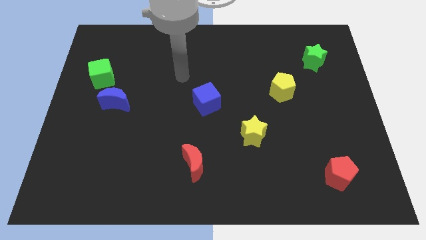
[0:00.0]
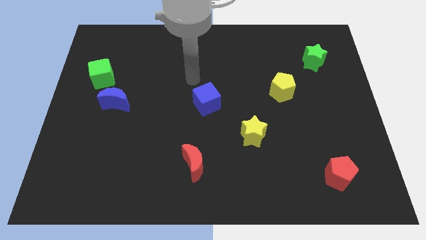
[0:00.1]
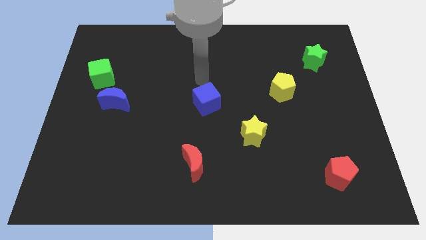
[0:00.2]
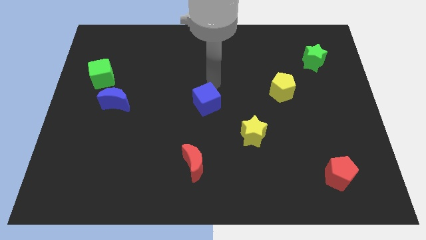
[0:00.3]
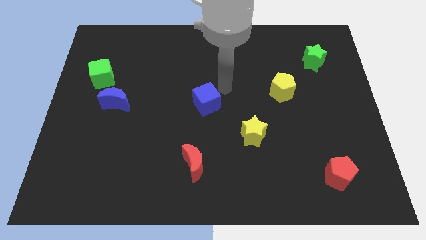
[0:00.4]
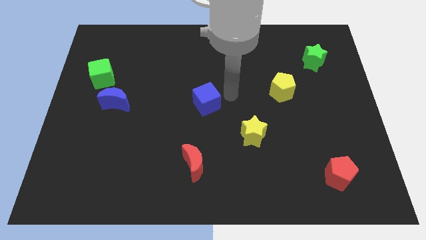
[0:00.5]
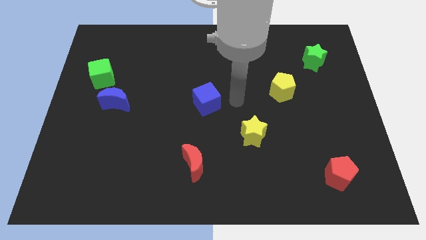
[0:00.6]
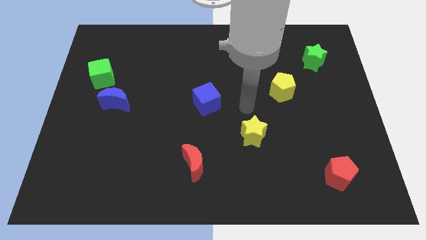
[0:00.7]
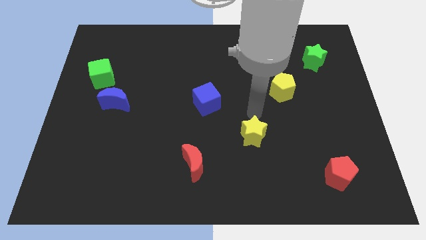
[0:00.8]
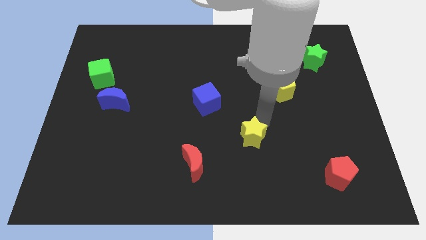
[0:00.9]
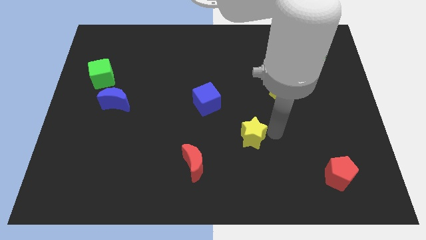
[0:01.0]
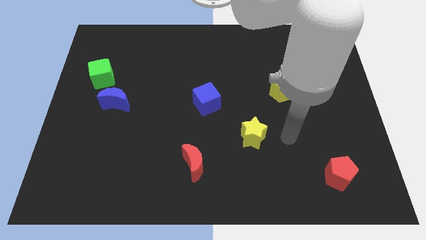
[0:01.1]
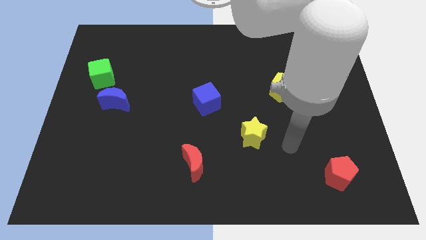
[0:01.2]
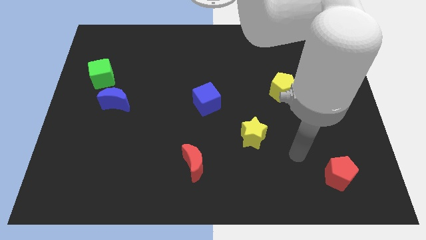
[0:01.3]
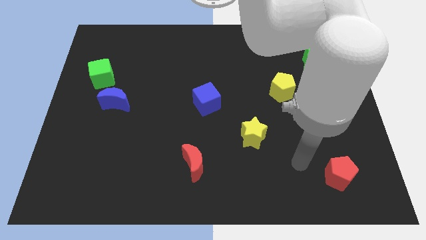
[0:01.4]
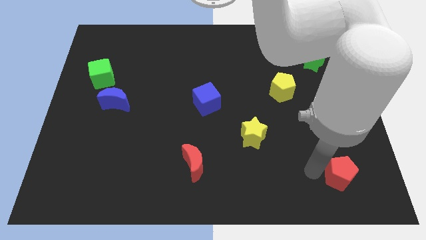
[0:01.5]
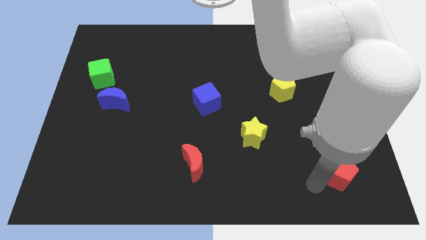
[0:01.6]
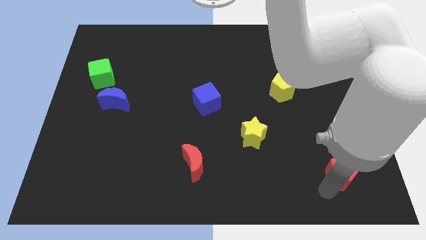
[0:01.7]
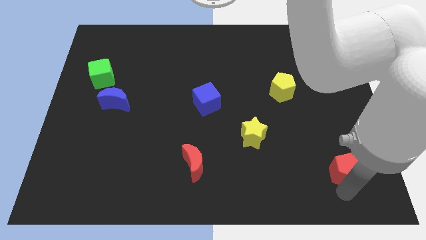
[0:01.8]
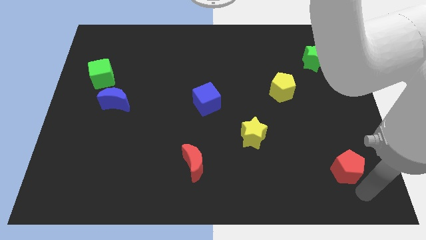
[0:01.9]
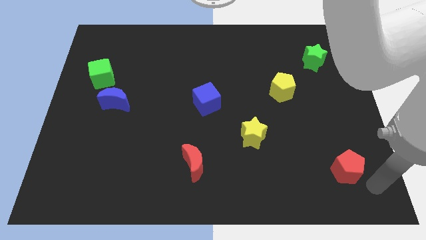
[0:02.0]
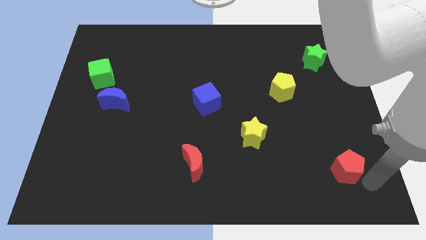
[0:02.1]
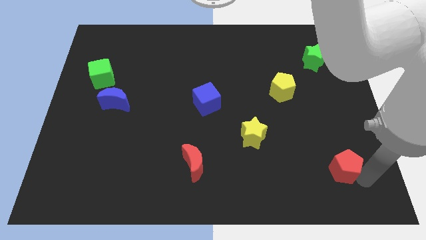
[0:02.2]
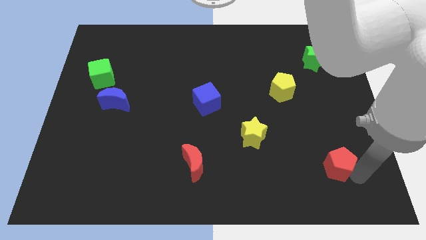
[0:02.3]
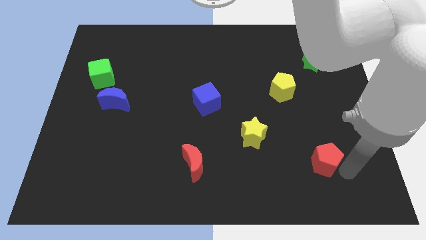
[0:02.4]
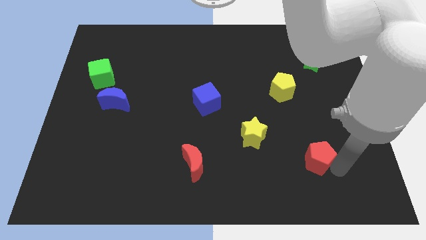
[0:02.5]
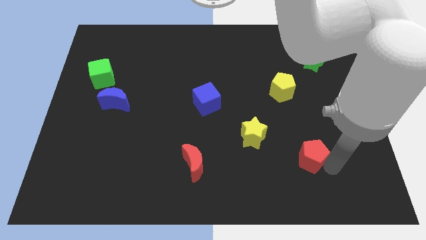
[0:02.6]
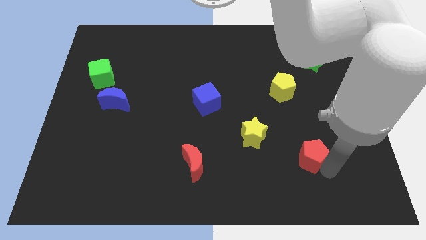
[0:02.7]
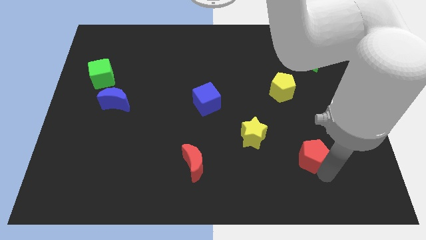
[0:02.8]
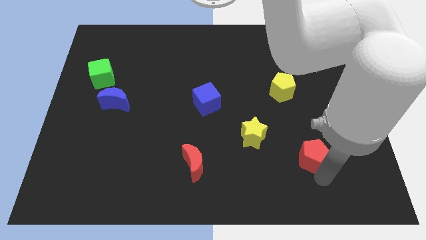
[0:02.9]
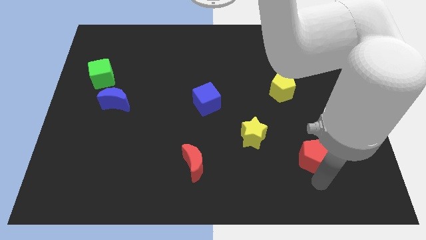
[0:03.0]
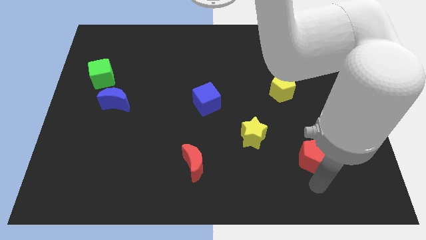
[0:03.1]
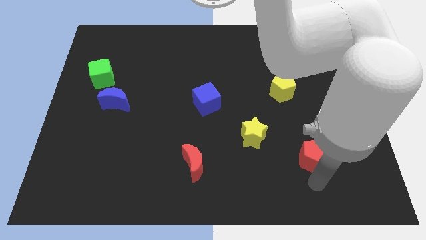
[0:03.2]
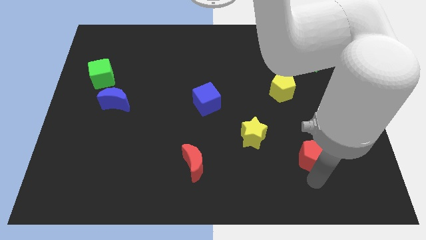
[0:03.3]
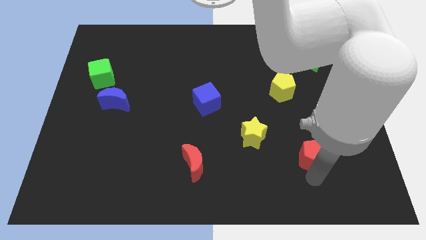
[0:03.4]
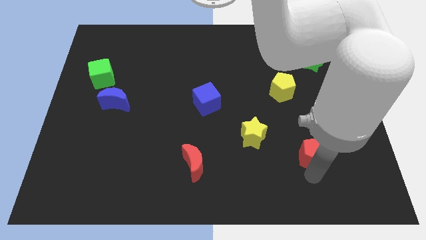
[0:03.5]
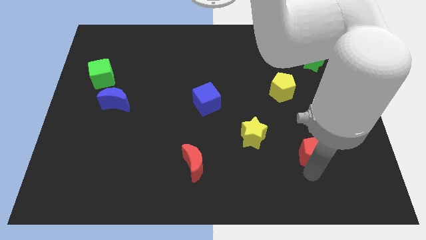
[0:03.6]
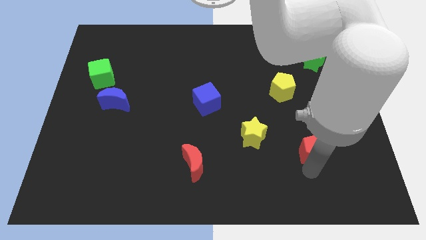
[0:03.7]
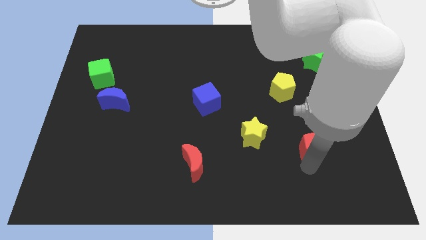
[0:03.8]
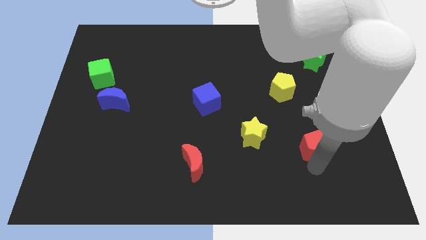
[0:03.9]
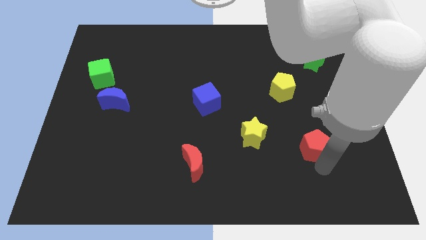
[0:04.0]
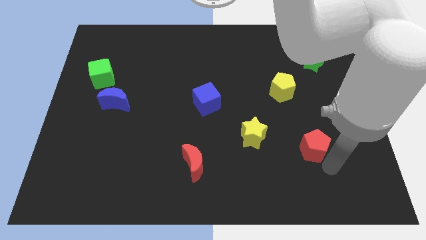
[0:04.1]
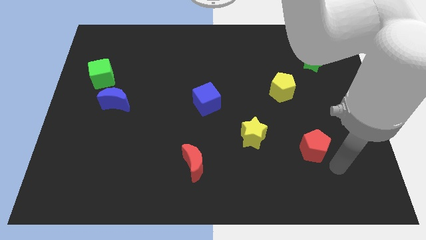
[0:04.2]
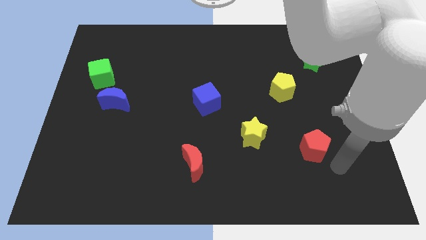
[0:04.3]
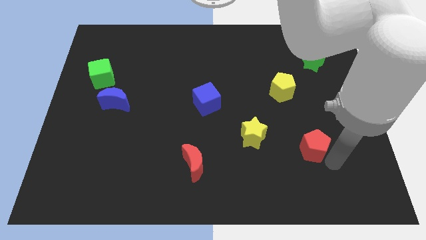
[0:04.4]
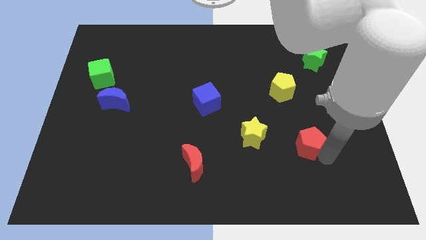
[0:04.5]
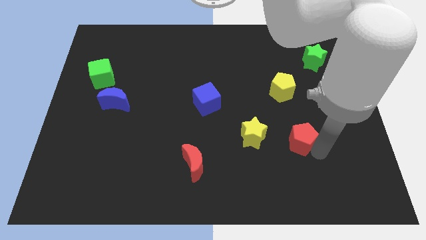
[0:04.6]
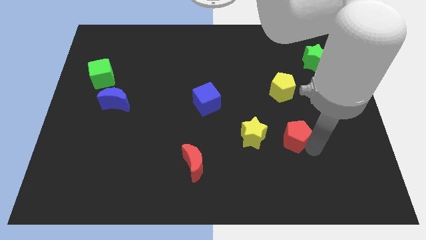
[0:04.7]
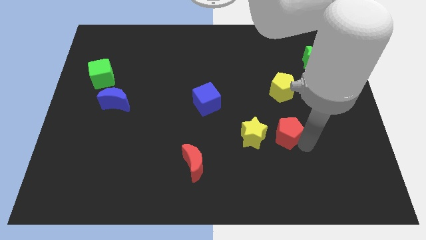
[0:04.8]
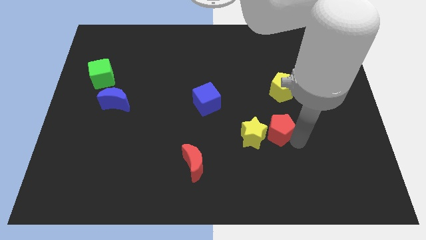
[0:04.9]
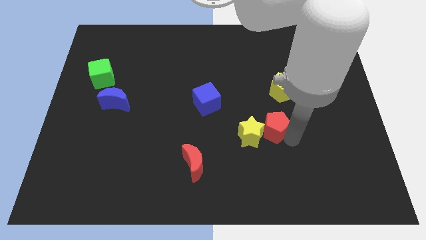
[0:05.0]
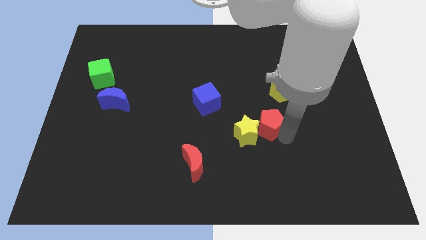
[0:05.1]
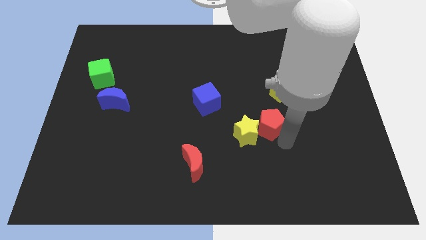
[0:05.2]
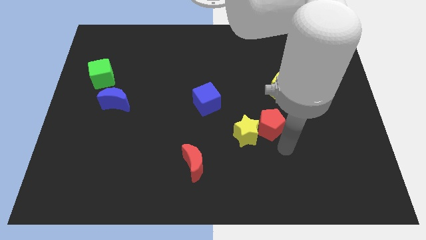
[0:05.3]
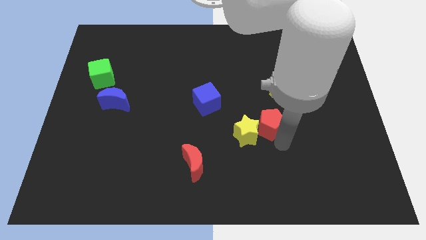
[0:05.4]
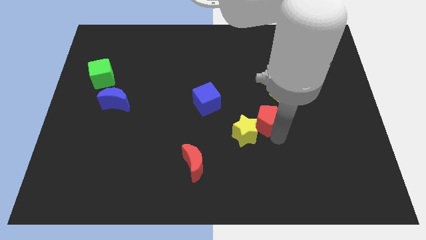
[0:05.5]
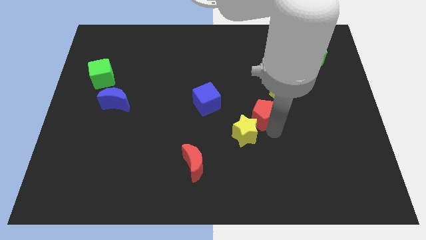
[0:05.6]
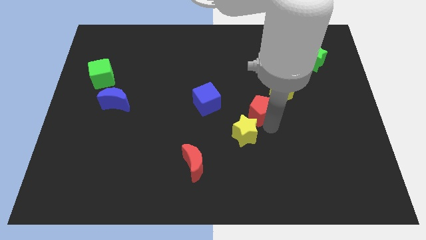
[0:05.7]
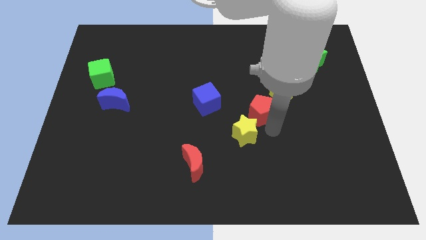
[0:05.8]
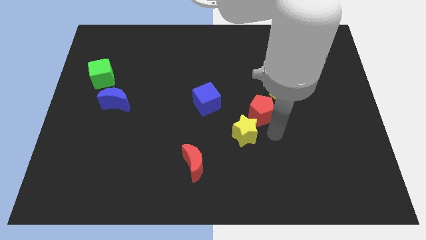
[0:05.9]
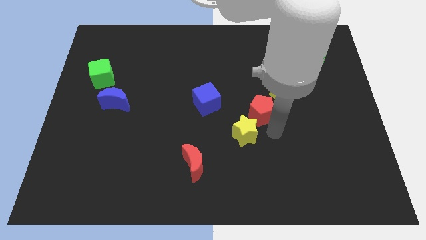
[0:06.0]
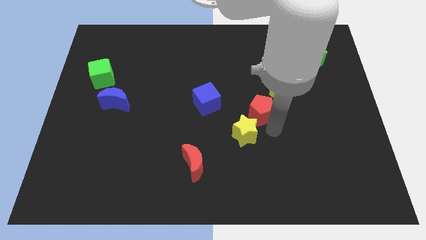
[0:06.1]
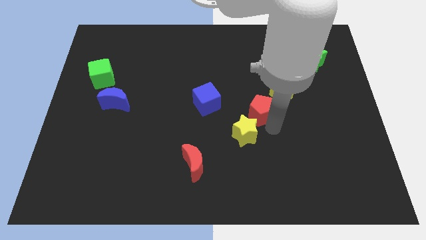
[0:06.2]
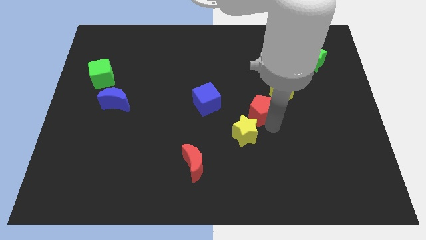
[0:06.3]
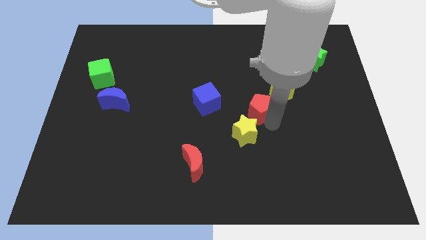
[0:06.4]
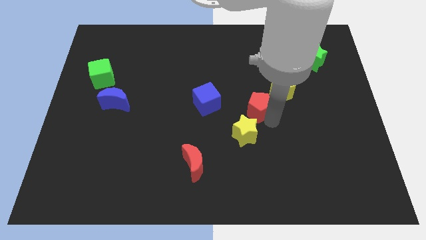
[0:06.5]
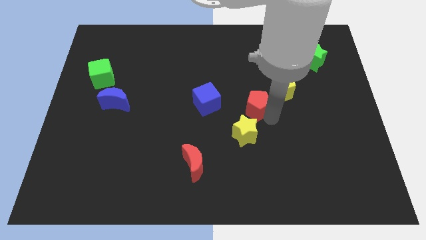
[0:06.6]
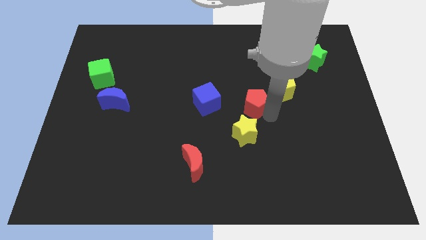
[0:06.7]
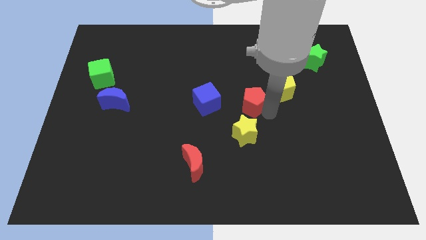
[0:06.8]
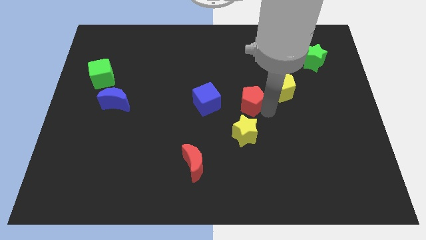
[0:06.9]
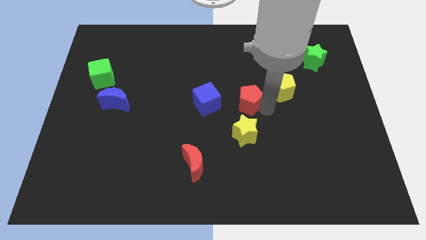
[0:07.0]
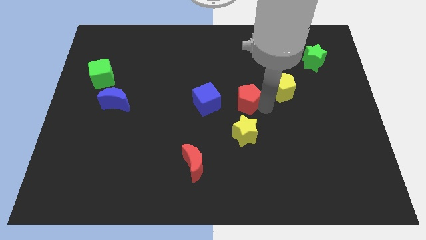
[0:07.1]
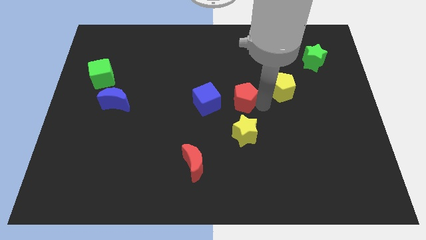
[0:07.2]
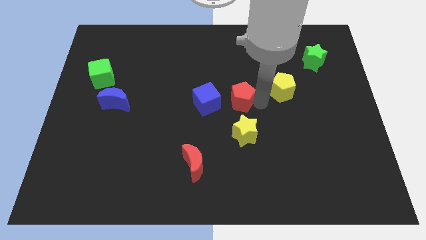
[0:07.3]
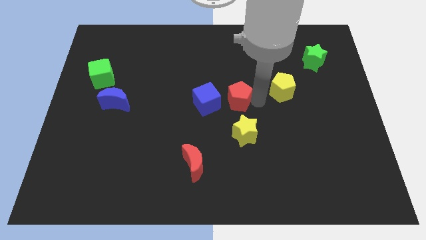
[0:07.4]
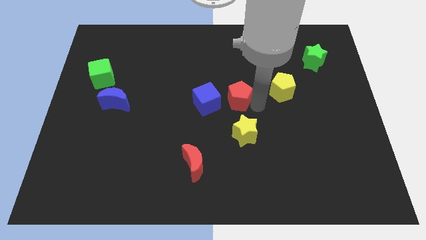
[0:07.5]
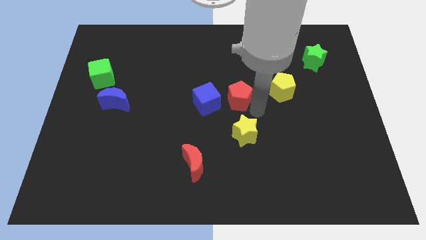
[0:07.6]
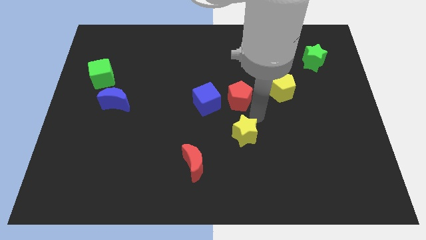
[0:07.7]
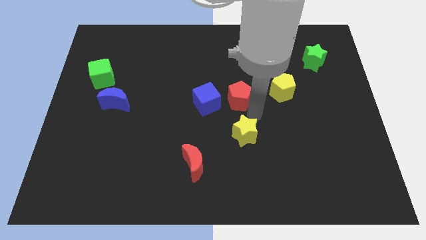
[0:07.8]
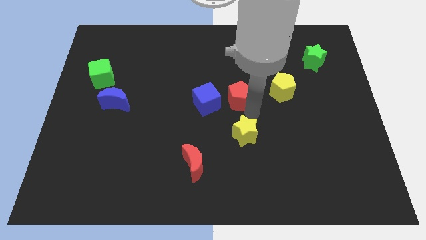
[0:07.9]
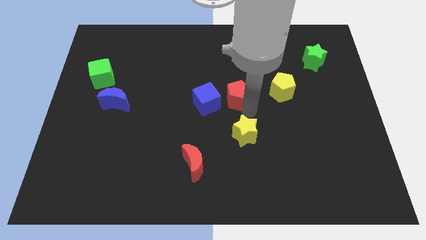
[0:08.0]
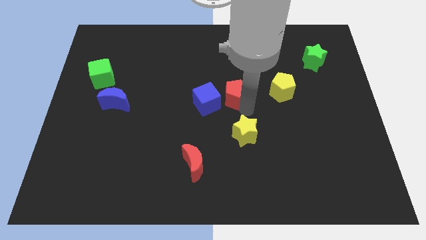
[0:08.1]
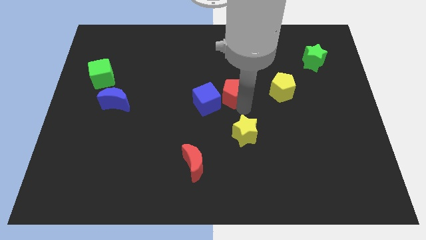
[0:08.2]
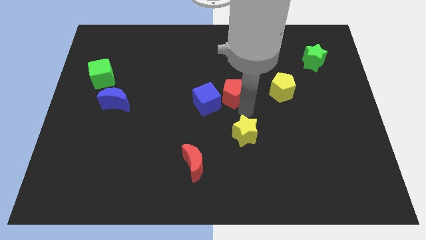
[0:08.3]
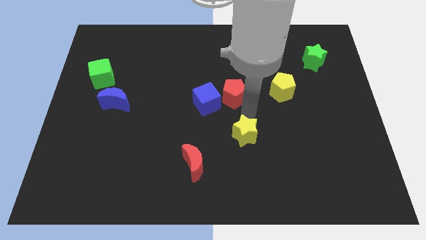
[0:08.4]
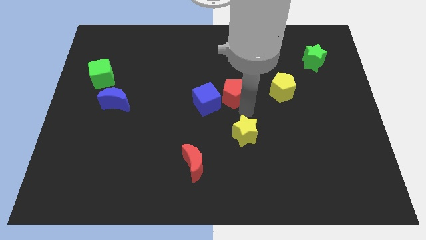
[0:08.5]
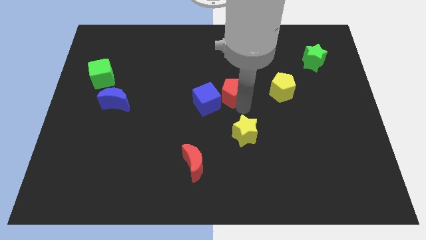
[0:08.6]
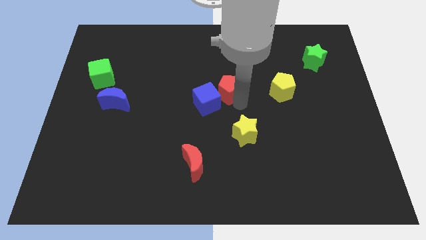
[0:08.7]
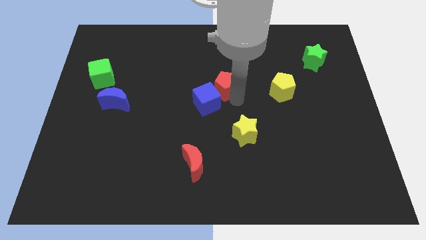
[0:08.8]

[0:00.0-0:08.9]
slide the red pentagon to the top of the blue cube
